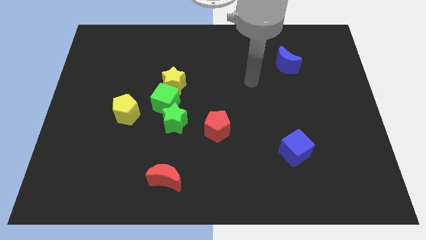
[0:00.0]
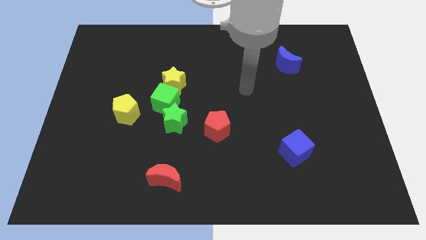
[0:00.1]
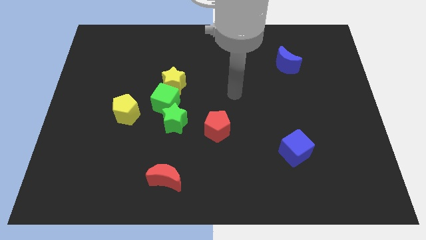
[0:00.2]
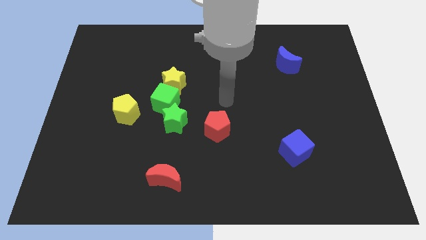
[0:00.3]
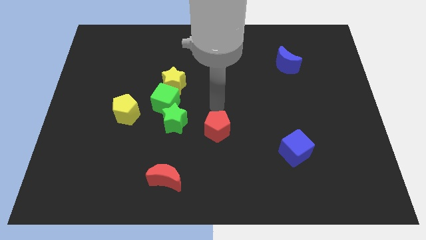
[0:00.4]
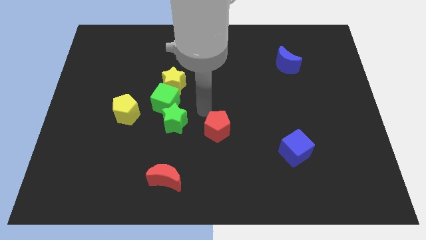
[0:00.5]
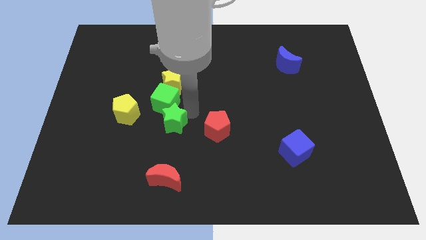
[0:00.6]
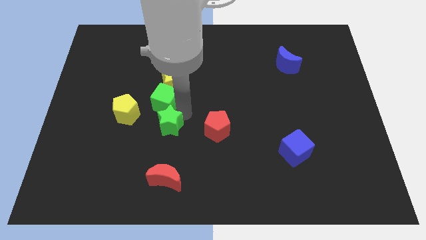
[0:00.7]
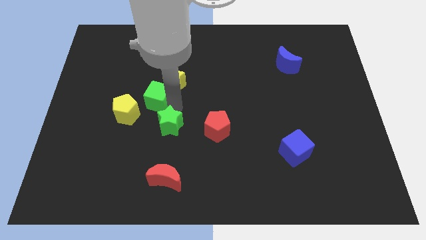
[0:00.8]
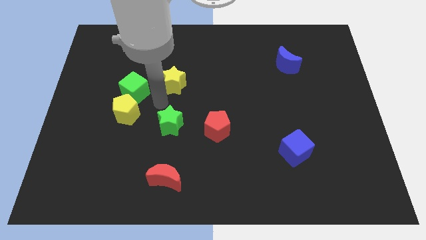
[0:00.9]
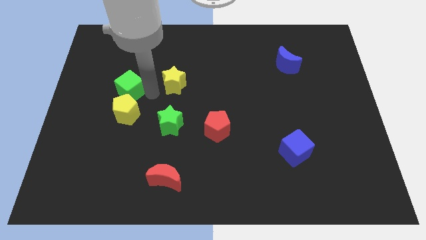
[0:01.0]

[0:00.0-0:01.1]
move the yellow star away from the green cube

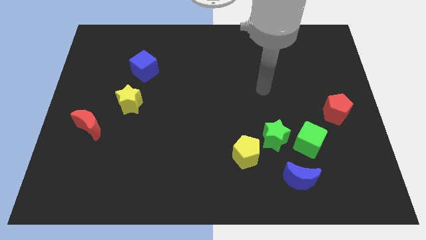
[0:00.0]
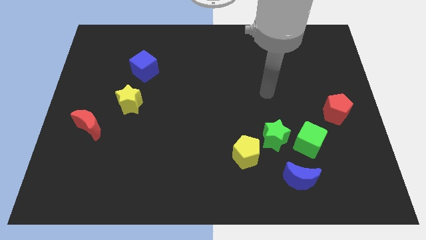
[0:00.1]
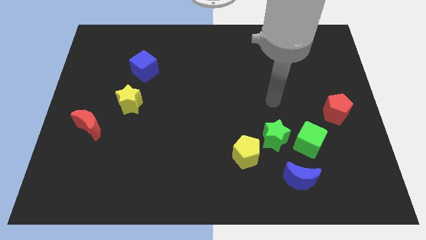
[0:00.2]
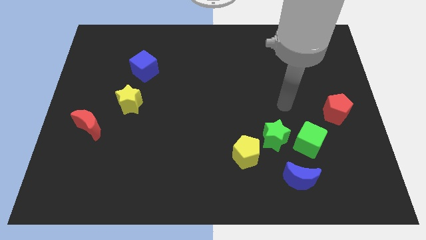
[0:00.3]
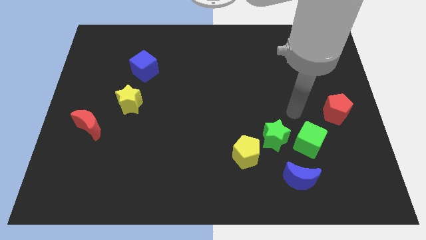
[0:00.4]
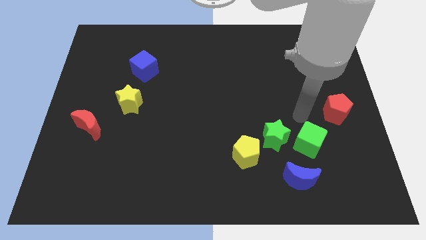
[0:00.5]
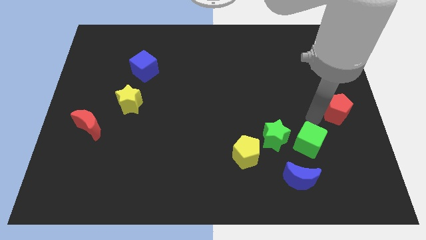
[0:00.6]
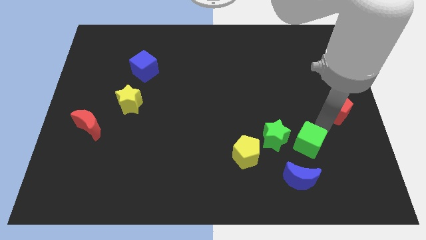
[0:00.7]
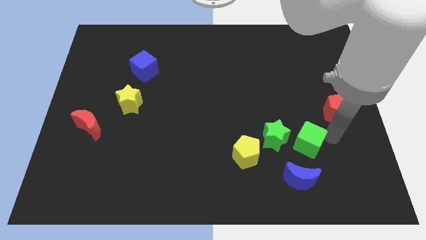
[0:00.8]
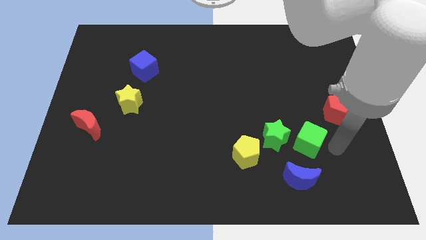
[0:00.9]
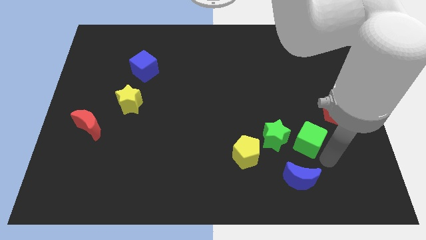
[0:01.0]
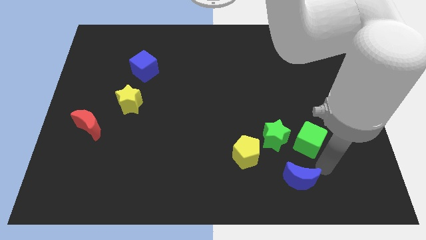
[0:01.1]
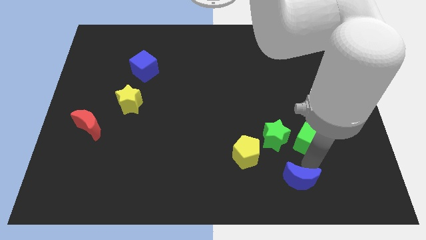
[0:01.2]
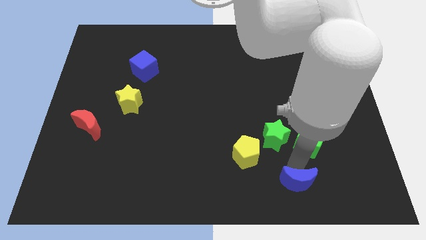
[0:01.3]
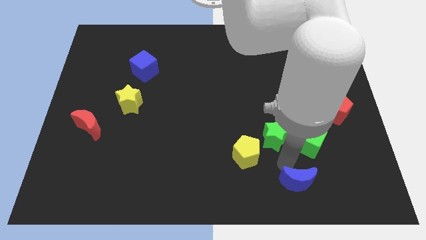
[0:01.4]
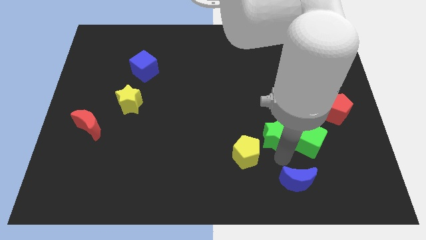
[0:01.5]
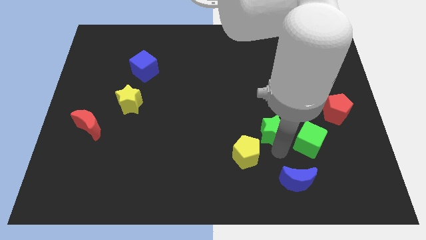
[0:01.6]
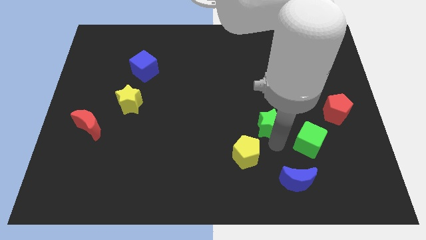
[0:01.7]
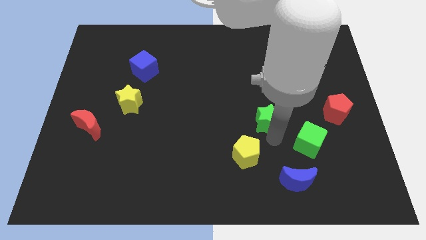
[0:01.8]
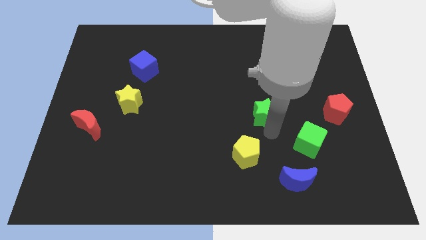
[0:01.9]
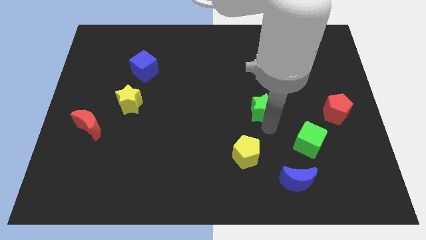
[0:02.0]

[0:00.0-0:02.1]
move the green star away from the green cube and yellow pentagon

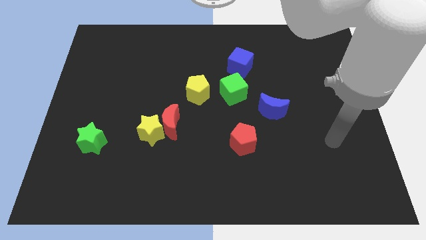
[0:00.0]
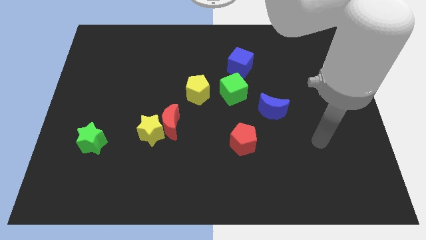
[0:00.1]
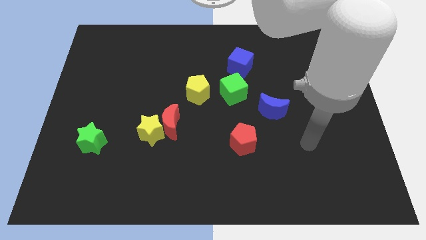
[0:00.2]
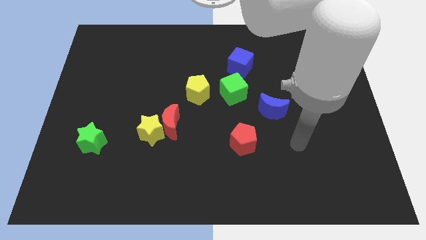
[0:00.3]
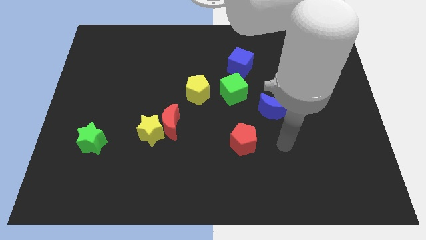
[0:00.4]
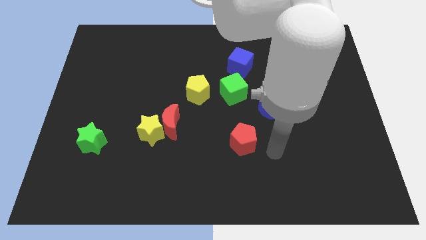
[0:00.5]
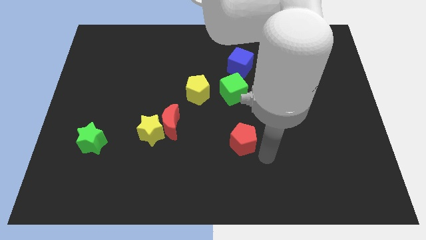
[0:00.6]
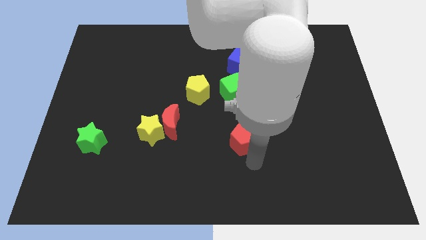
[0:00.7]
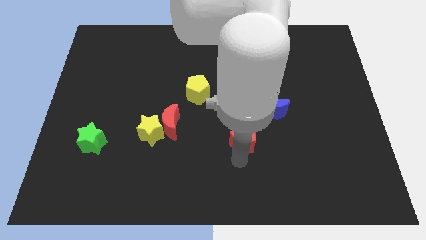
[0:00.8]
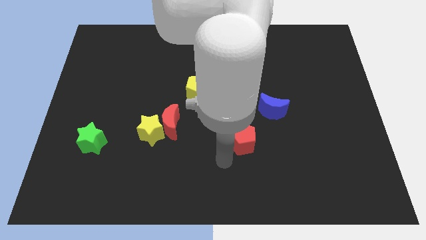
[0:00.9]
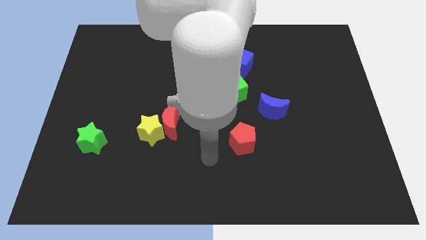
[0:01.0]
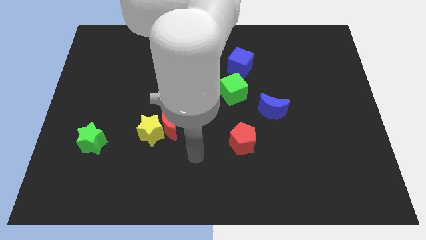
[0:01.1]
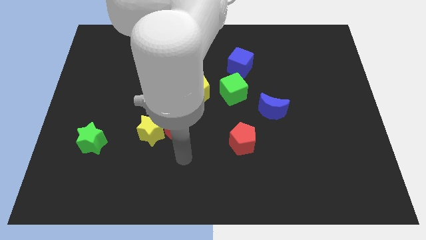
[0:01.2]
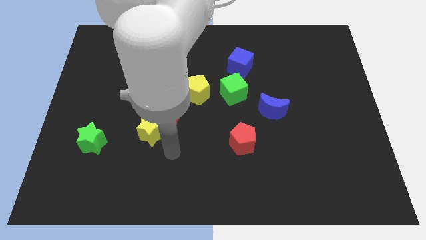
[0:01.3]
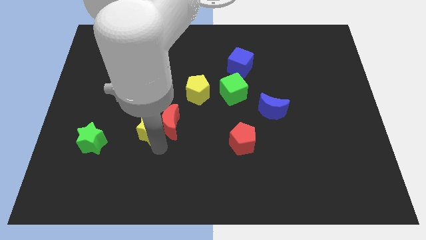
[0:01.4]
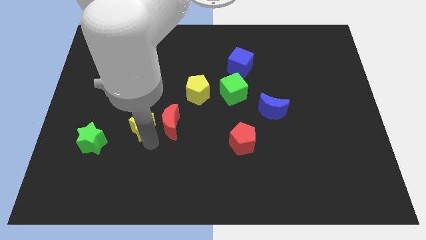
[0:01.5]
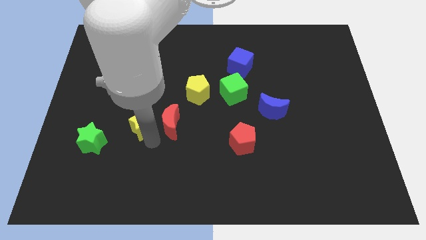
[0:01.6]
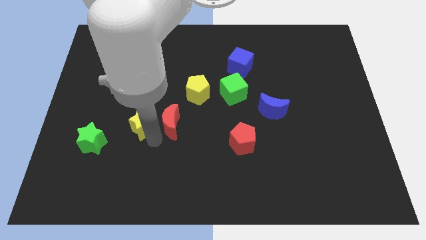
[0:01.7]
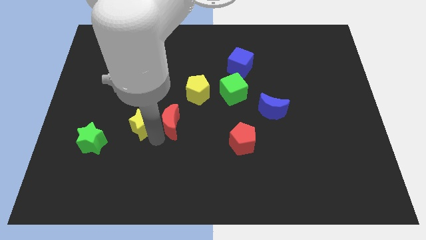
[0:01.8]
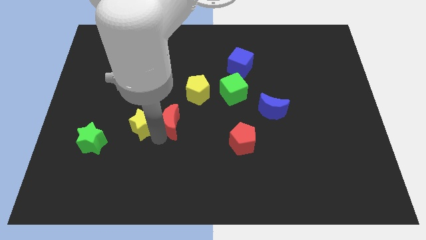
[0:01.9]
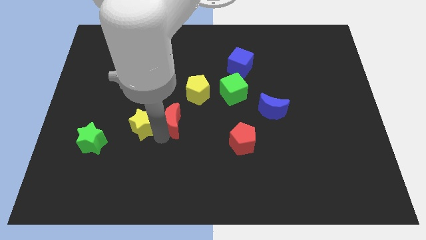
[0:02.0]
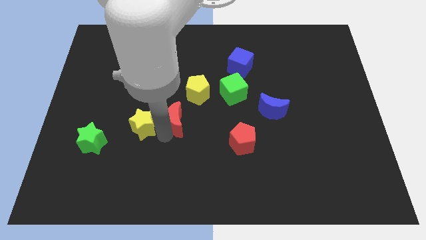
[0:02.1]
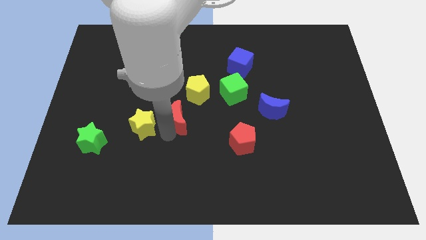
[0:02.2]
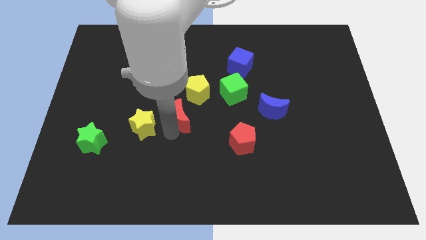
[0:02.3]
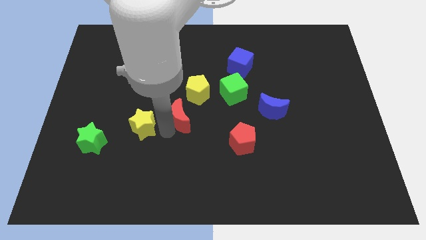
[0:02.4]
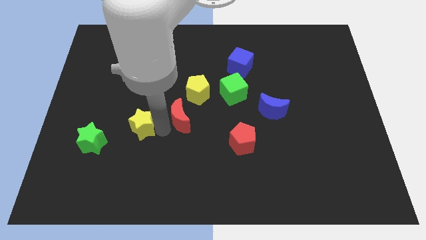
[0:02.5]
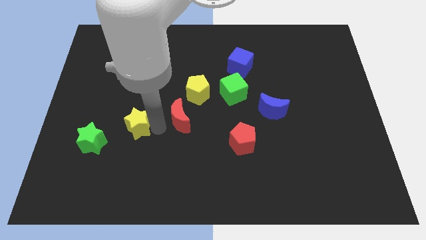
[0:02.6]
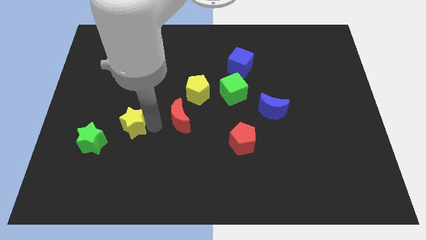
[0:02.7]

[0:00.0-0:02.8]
pull the red moon apart from the yellow star

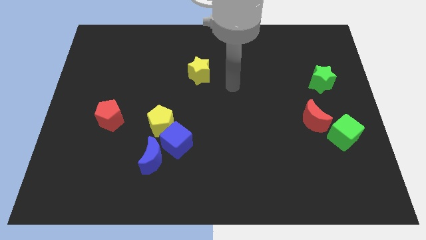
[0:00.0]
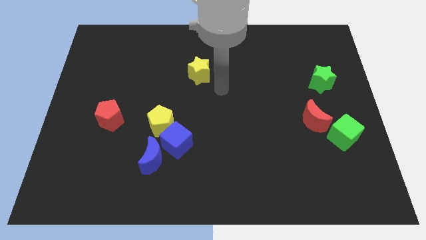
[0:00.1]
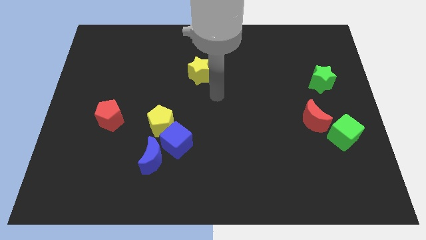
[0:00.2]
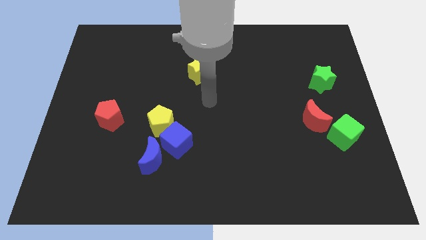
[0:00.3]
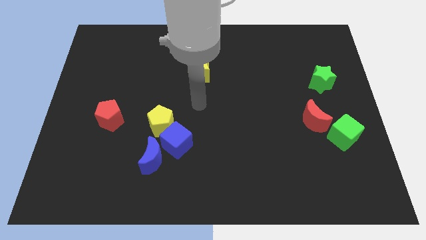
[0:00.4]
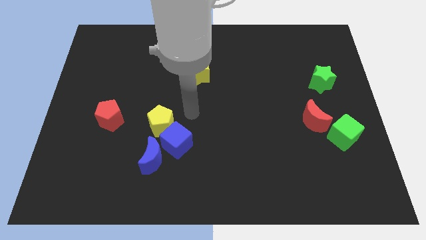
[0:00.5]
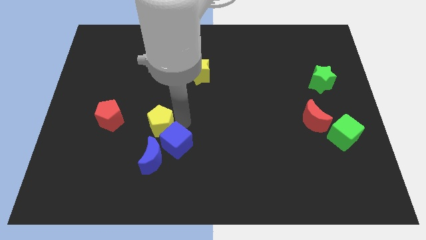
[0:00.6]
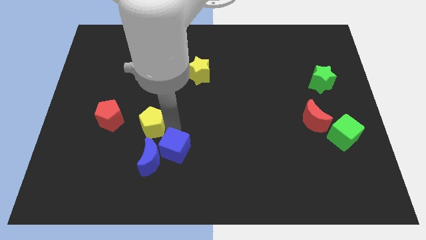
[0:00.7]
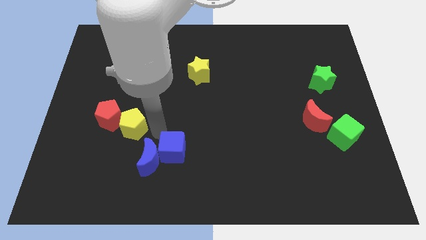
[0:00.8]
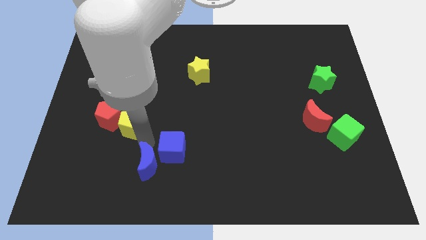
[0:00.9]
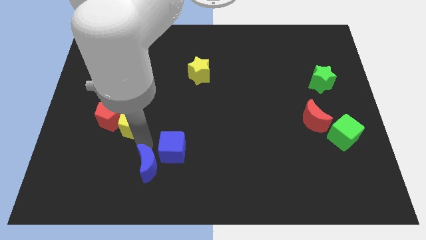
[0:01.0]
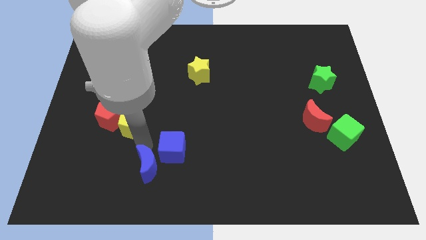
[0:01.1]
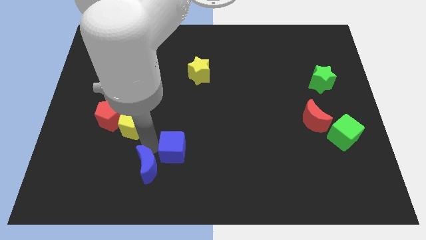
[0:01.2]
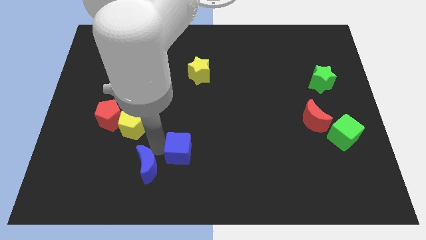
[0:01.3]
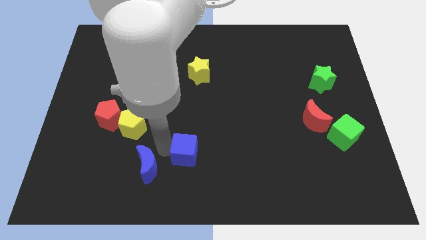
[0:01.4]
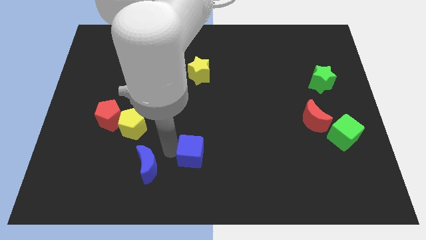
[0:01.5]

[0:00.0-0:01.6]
move the blue cube away from the yellow pentagon and blue moon

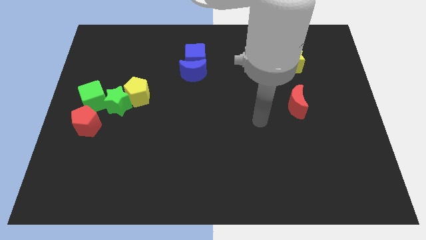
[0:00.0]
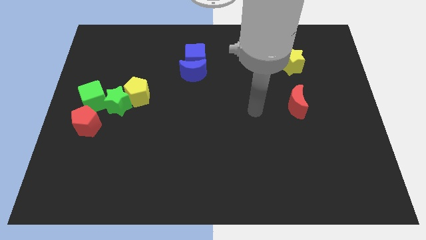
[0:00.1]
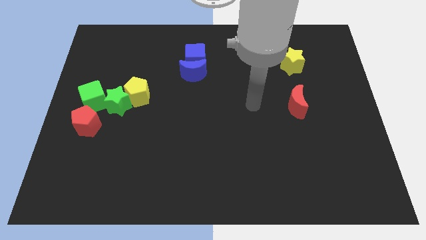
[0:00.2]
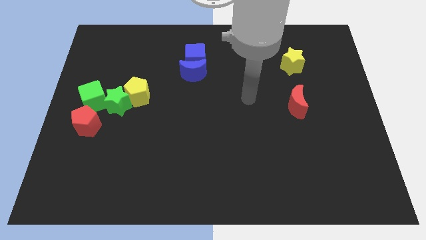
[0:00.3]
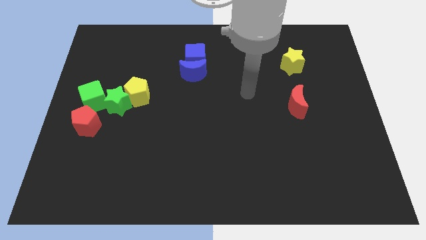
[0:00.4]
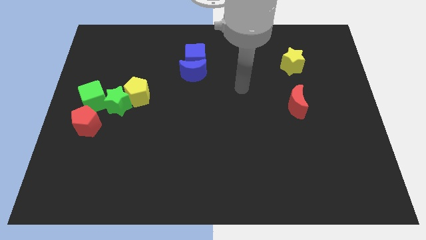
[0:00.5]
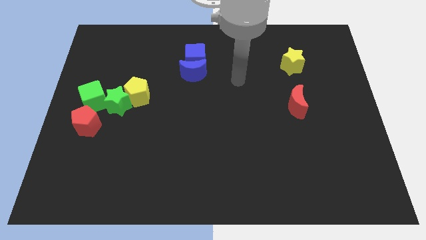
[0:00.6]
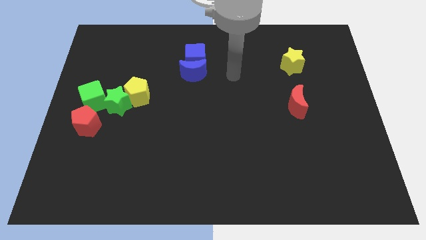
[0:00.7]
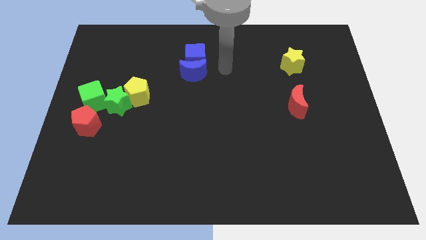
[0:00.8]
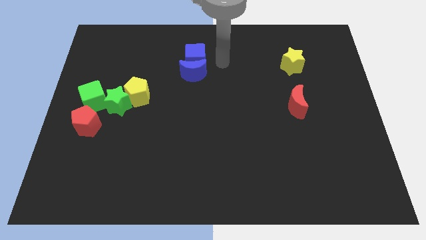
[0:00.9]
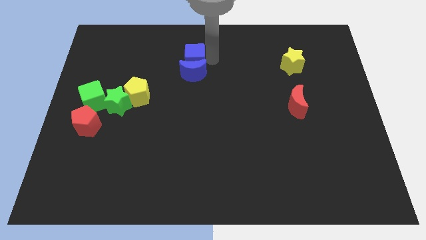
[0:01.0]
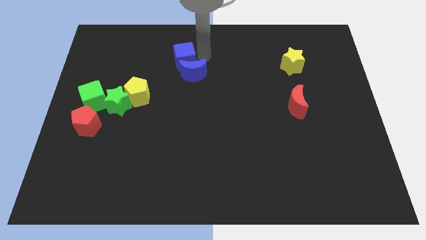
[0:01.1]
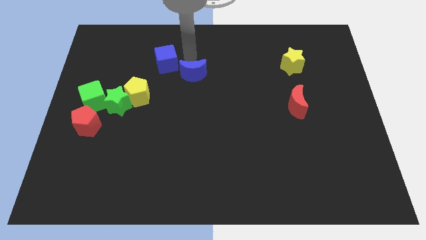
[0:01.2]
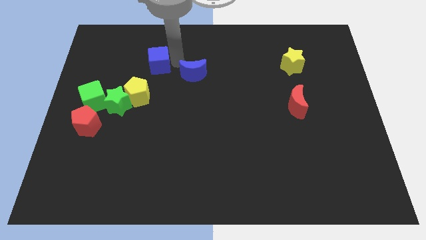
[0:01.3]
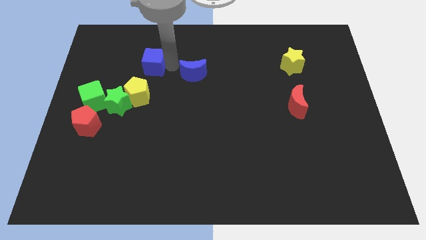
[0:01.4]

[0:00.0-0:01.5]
pull the blue moon apart from the blue cube
